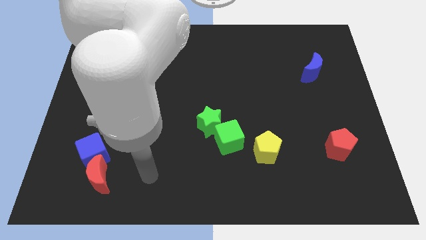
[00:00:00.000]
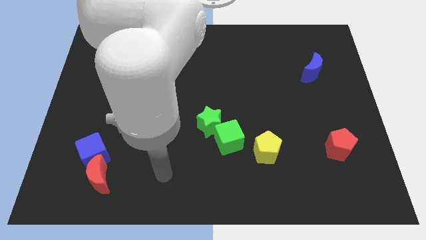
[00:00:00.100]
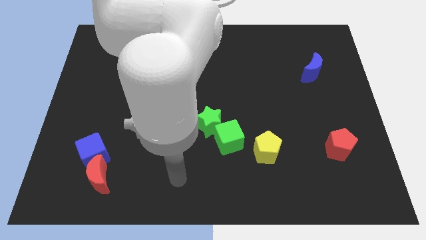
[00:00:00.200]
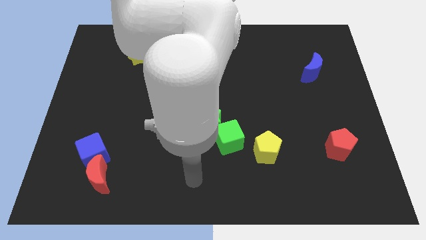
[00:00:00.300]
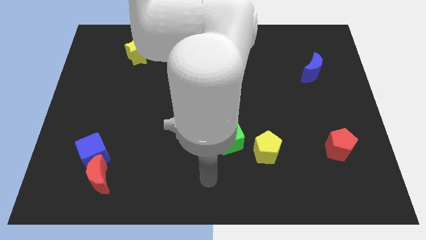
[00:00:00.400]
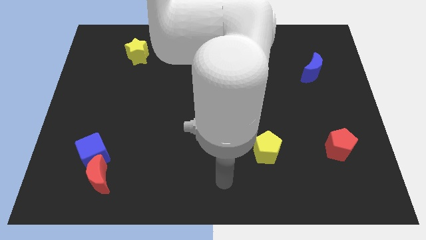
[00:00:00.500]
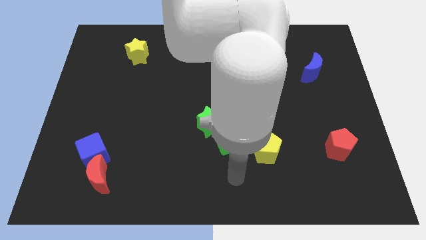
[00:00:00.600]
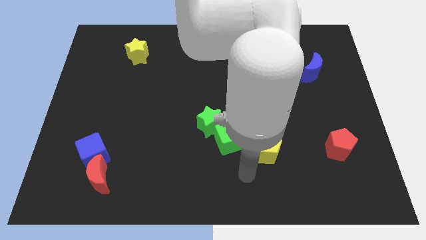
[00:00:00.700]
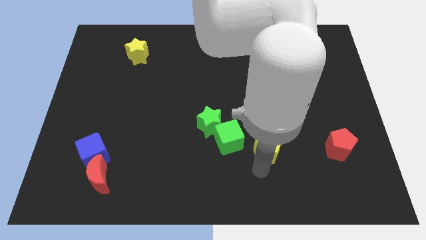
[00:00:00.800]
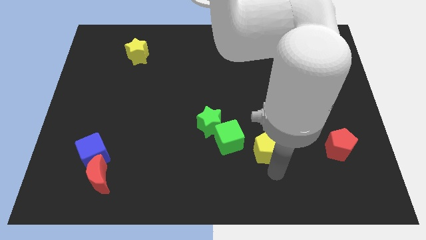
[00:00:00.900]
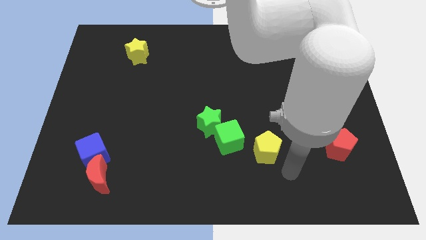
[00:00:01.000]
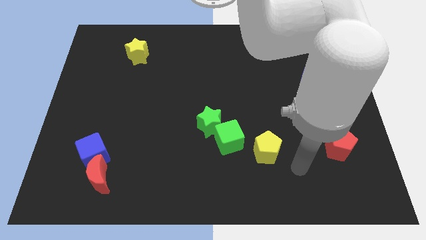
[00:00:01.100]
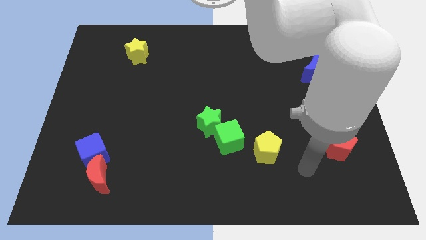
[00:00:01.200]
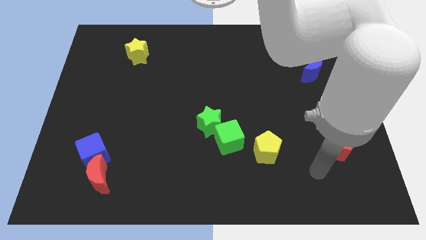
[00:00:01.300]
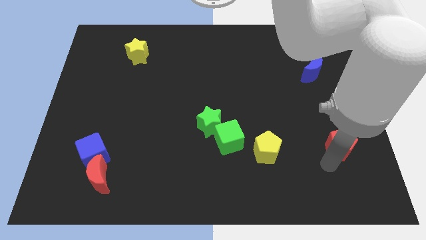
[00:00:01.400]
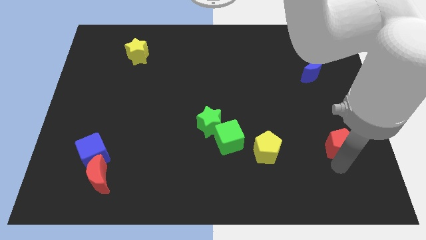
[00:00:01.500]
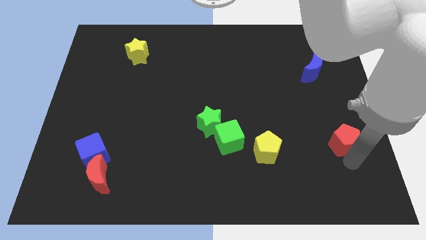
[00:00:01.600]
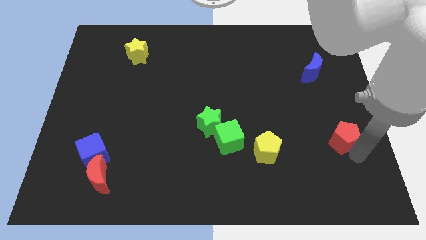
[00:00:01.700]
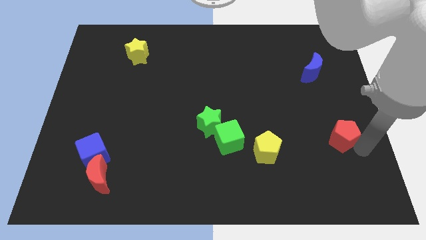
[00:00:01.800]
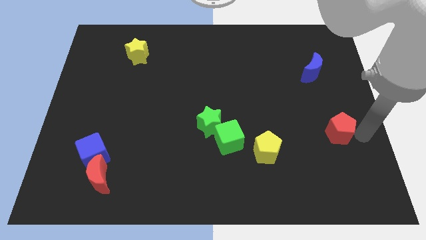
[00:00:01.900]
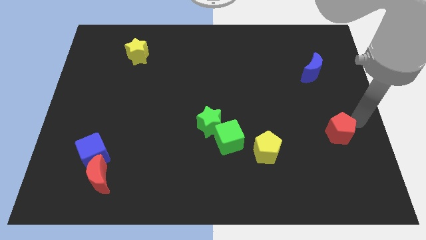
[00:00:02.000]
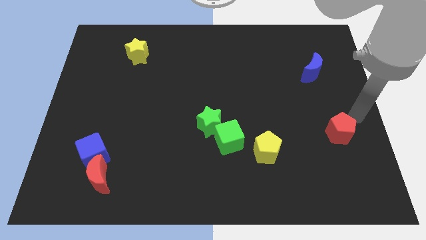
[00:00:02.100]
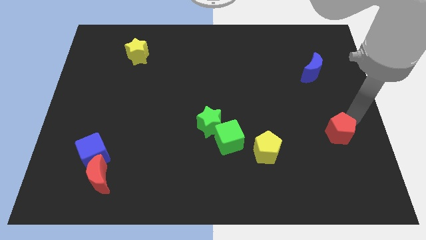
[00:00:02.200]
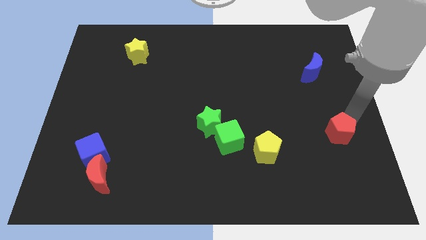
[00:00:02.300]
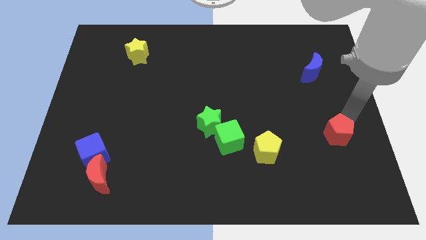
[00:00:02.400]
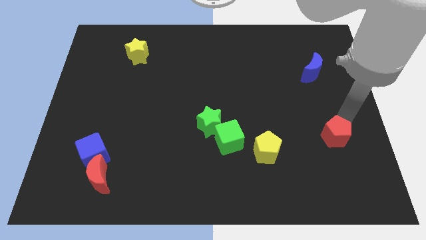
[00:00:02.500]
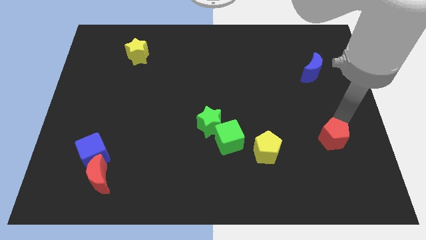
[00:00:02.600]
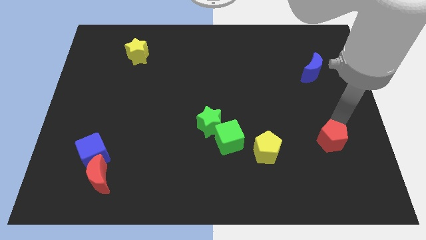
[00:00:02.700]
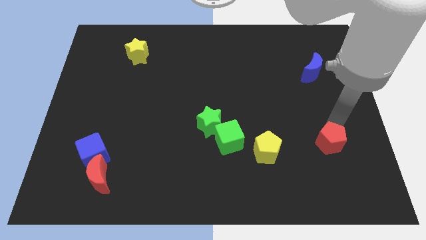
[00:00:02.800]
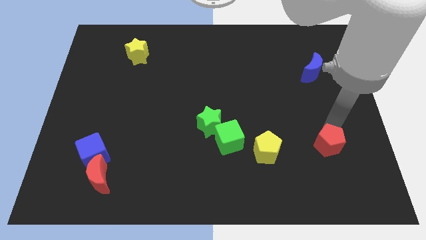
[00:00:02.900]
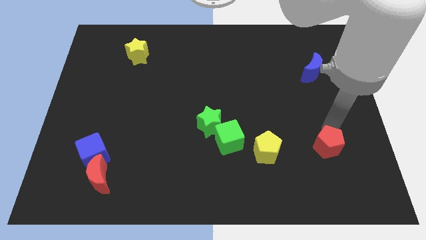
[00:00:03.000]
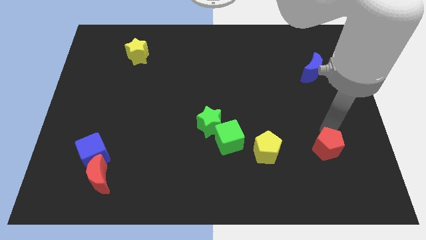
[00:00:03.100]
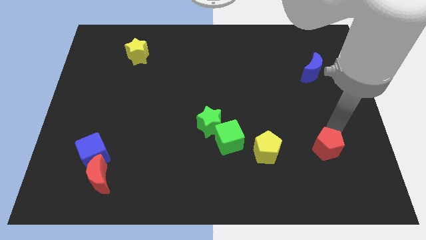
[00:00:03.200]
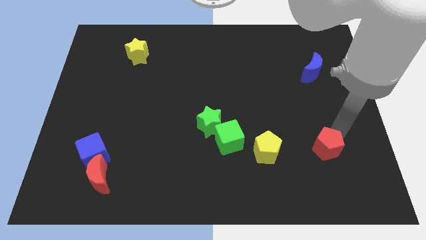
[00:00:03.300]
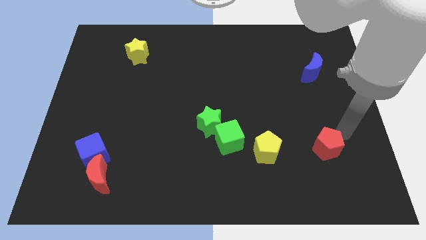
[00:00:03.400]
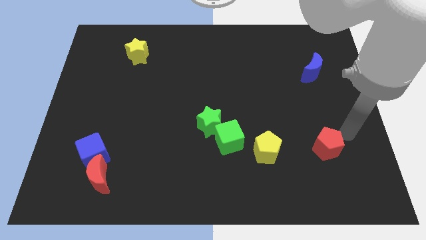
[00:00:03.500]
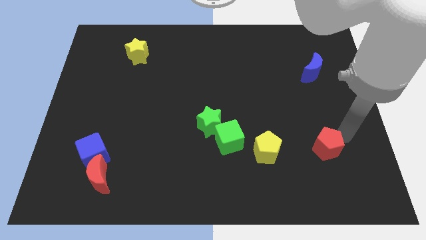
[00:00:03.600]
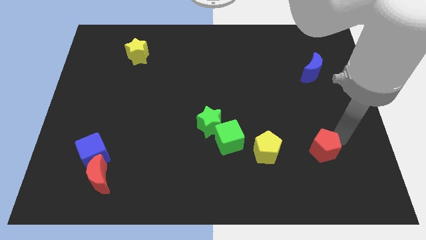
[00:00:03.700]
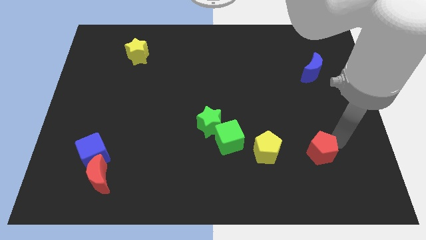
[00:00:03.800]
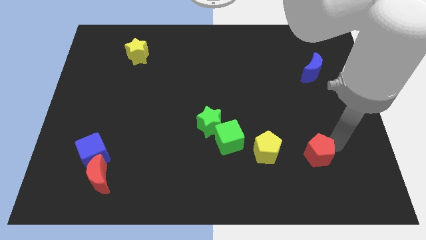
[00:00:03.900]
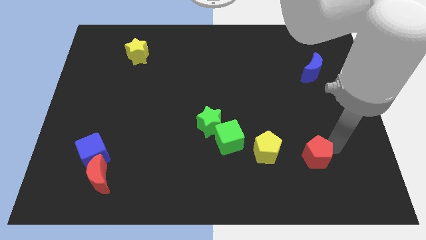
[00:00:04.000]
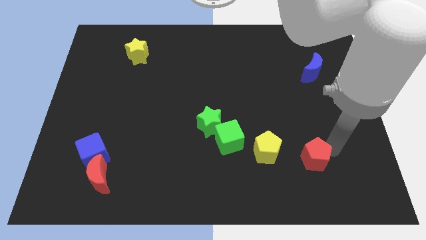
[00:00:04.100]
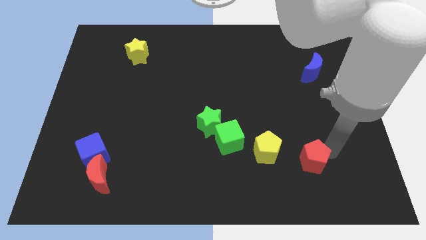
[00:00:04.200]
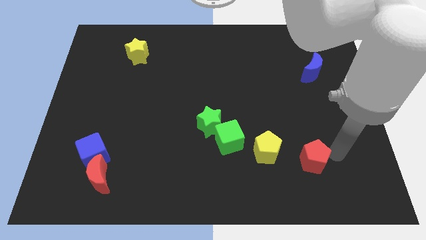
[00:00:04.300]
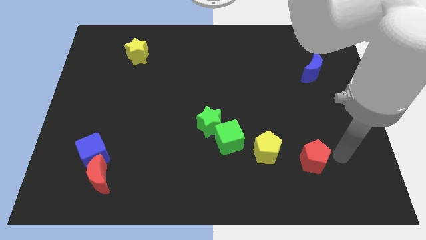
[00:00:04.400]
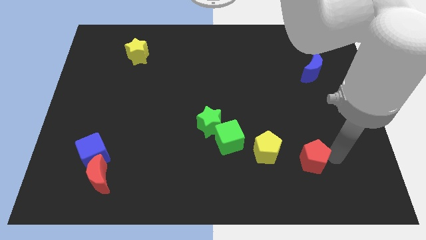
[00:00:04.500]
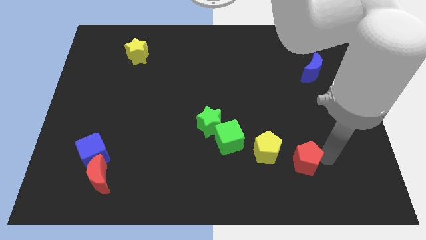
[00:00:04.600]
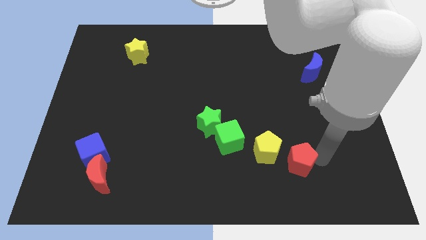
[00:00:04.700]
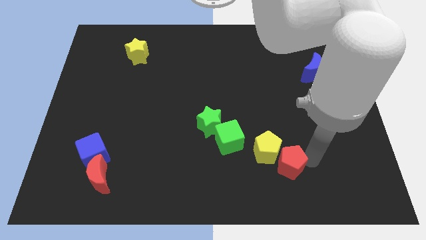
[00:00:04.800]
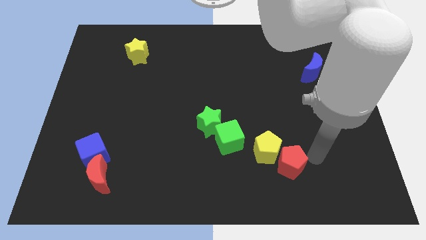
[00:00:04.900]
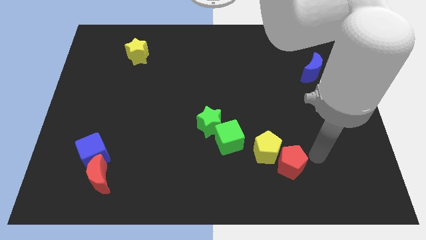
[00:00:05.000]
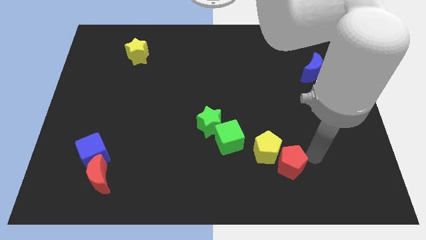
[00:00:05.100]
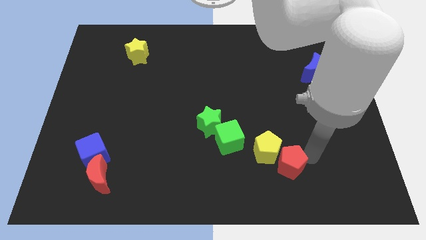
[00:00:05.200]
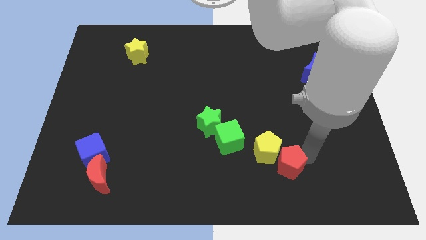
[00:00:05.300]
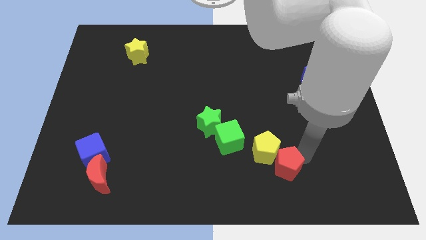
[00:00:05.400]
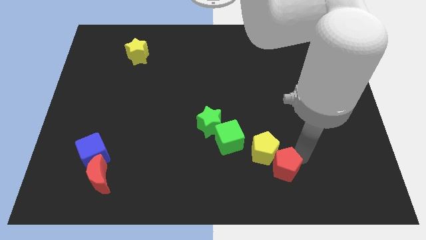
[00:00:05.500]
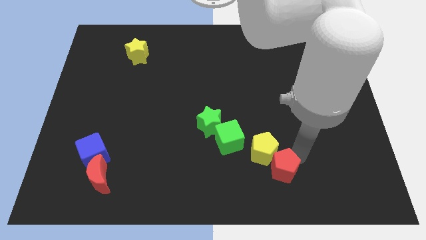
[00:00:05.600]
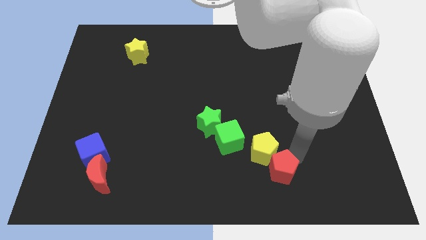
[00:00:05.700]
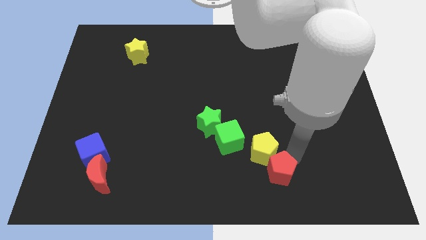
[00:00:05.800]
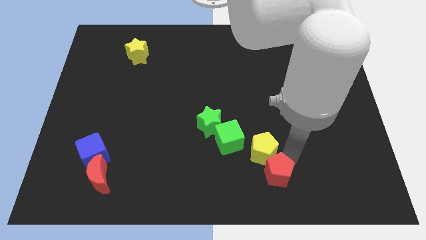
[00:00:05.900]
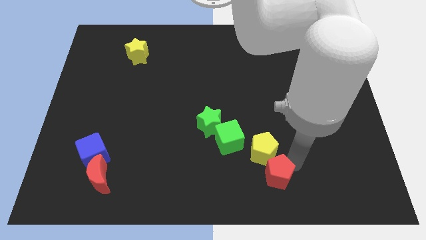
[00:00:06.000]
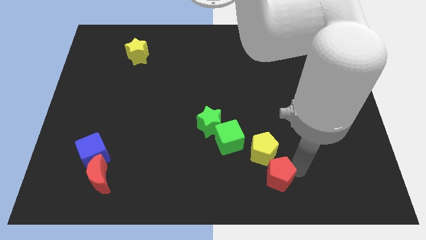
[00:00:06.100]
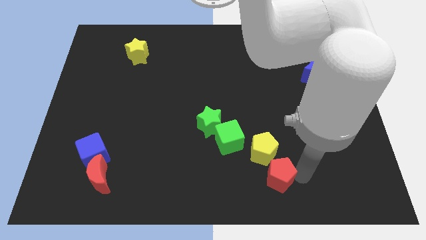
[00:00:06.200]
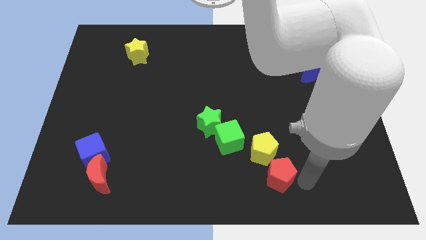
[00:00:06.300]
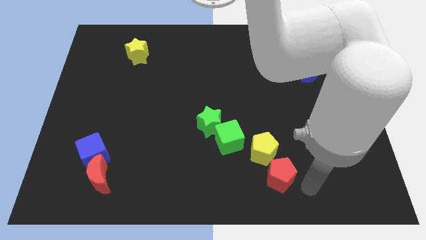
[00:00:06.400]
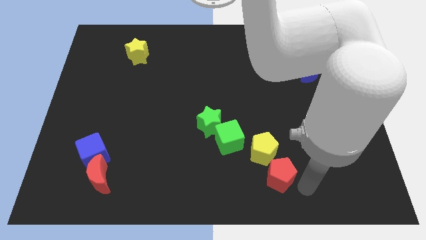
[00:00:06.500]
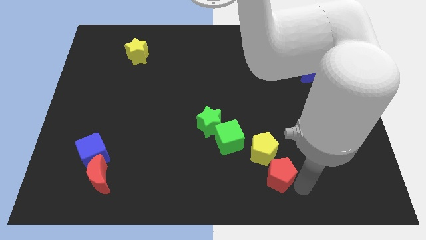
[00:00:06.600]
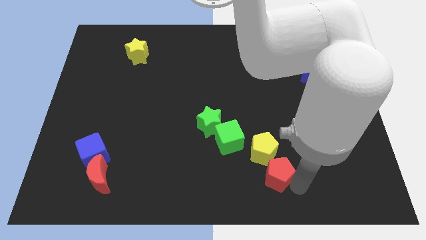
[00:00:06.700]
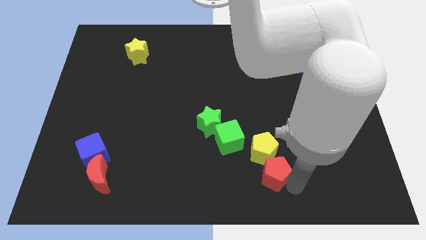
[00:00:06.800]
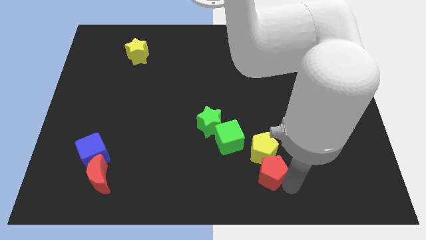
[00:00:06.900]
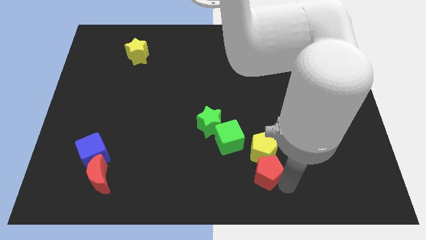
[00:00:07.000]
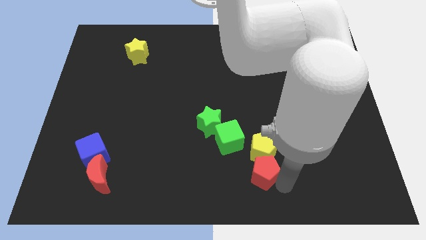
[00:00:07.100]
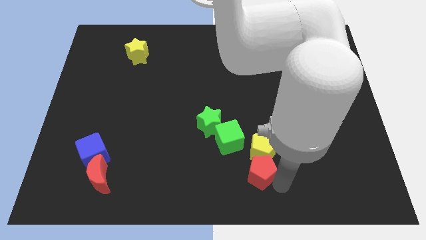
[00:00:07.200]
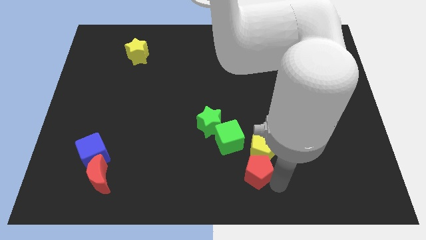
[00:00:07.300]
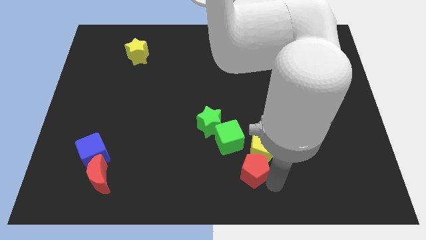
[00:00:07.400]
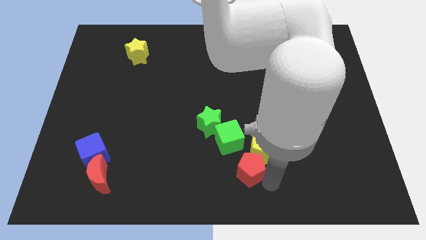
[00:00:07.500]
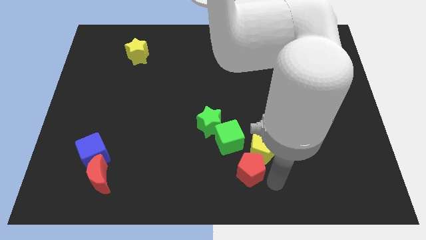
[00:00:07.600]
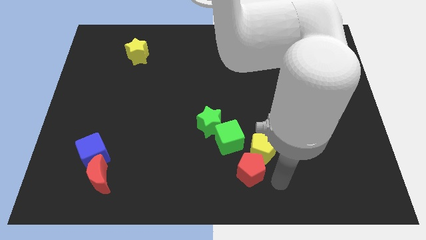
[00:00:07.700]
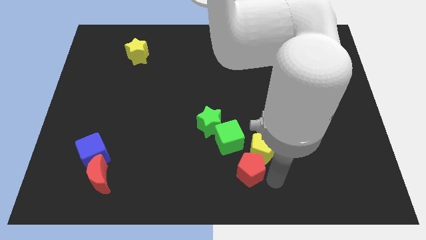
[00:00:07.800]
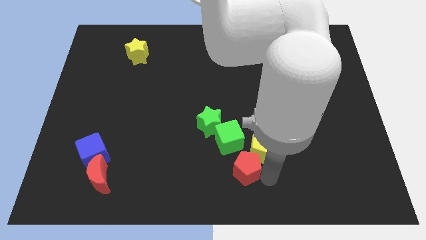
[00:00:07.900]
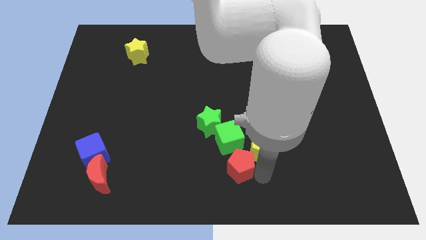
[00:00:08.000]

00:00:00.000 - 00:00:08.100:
slide the red pentagon left
